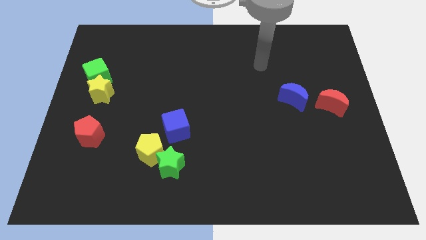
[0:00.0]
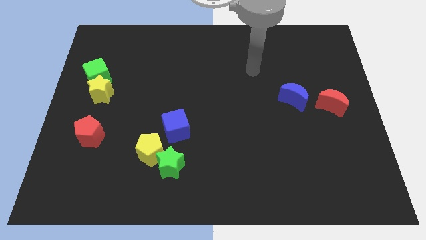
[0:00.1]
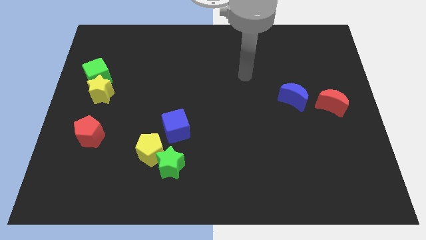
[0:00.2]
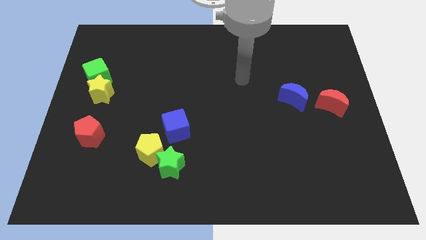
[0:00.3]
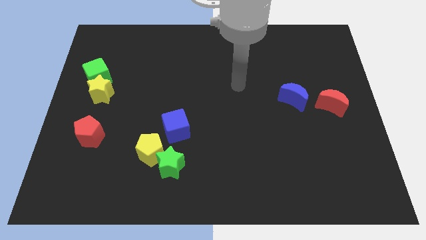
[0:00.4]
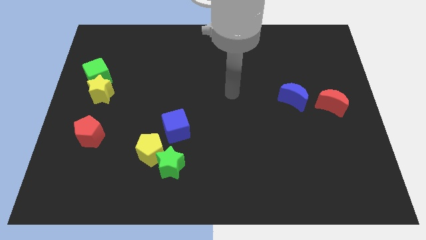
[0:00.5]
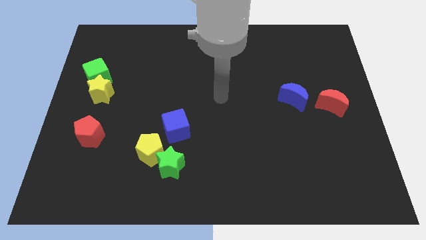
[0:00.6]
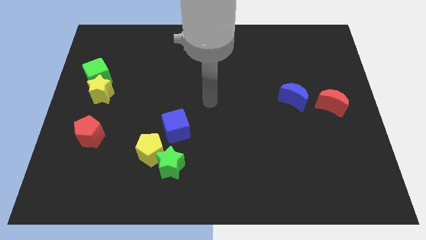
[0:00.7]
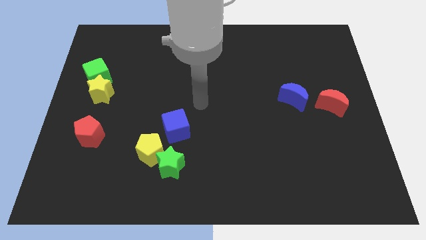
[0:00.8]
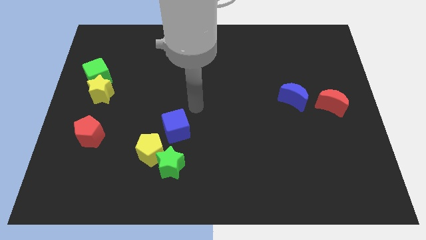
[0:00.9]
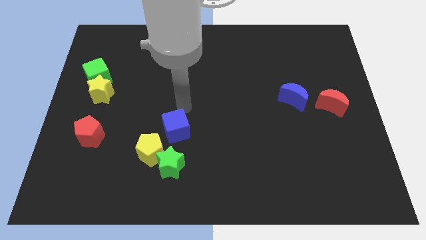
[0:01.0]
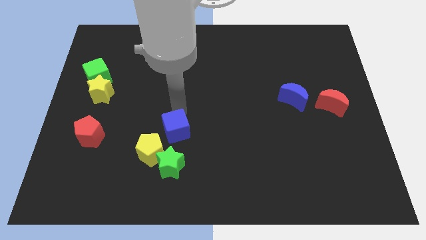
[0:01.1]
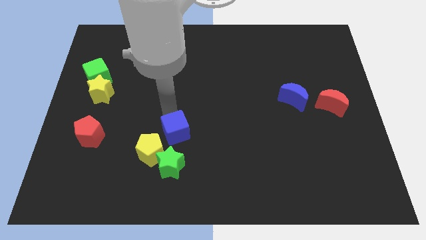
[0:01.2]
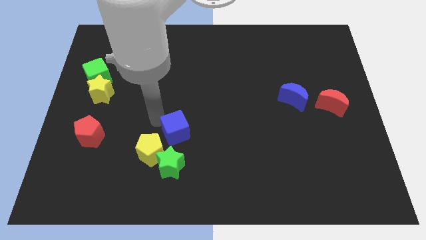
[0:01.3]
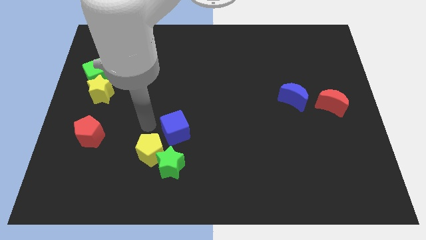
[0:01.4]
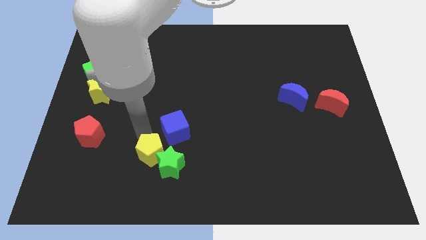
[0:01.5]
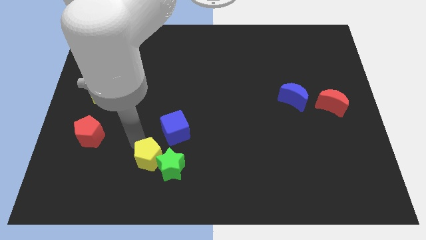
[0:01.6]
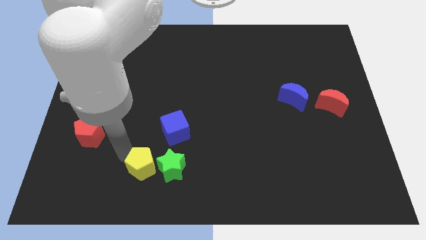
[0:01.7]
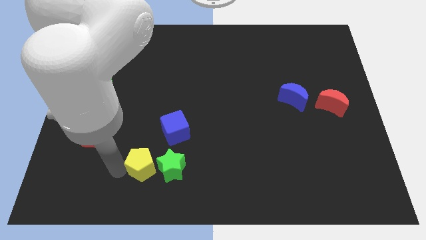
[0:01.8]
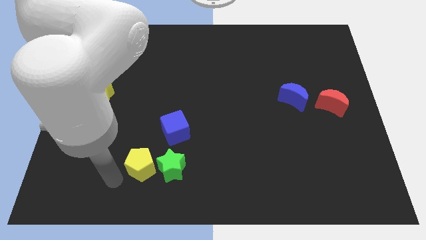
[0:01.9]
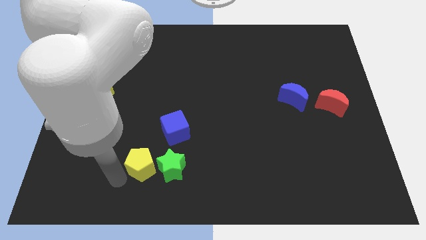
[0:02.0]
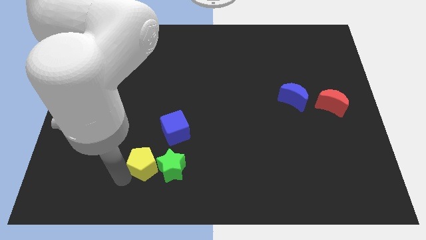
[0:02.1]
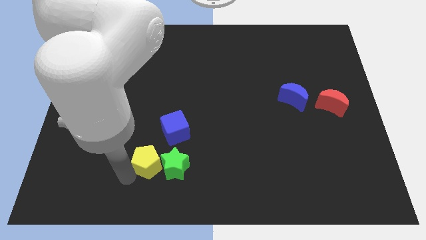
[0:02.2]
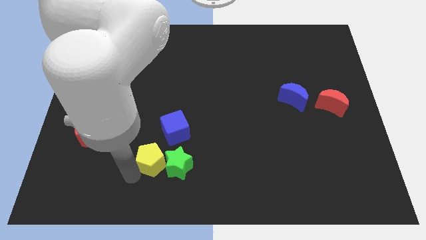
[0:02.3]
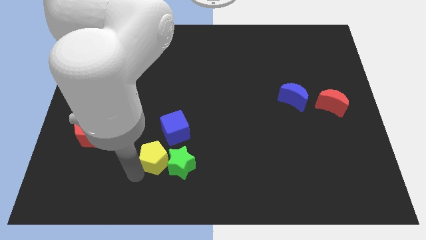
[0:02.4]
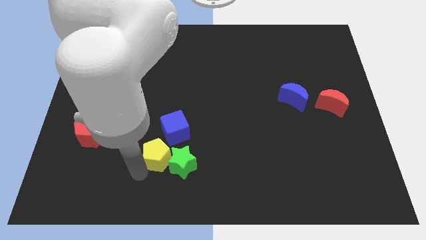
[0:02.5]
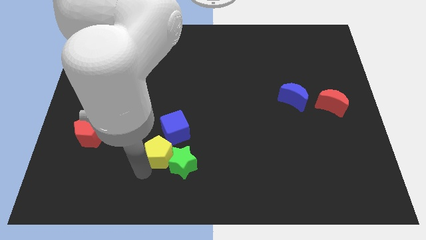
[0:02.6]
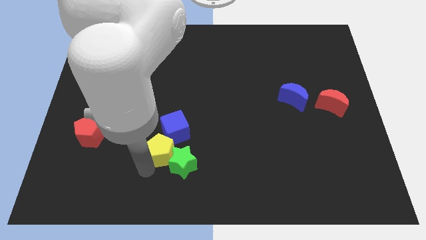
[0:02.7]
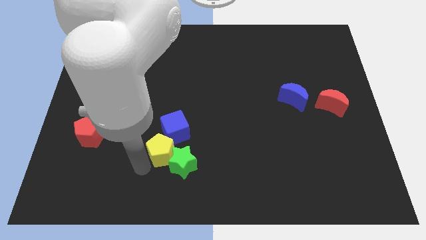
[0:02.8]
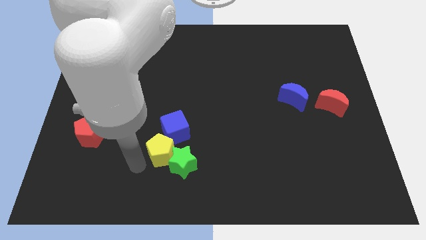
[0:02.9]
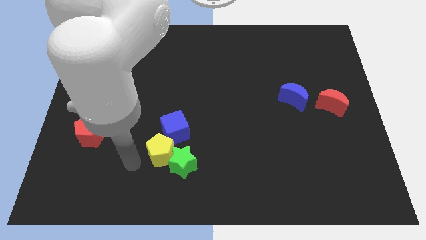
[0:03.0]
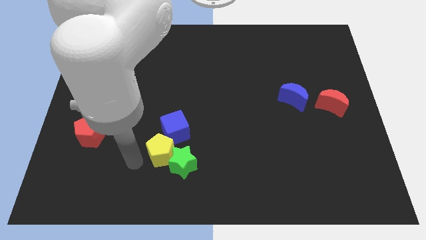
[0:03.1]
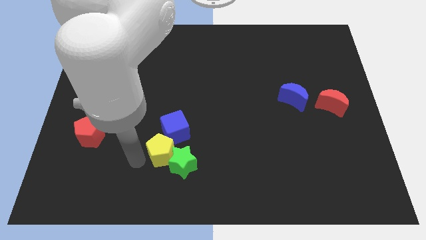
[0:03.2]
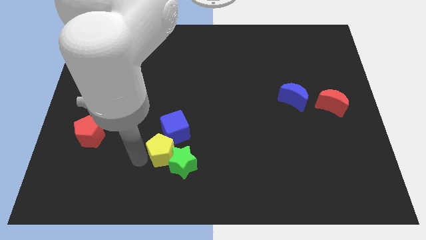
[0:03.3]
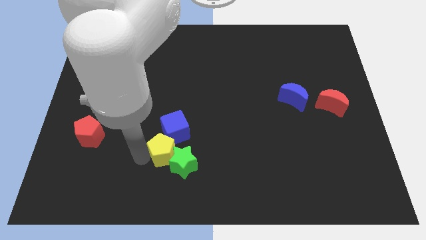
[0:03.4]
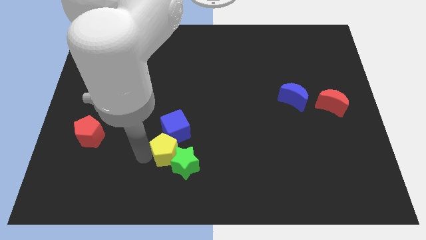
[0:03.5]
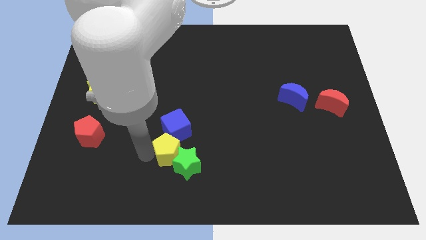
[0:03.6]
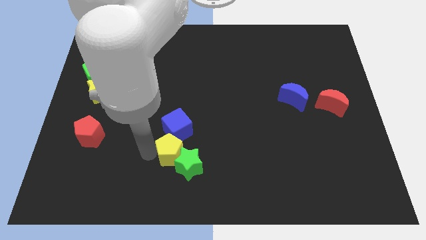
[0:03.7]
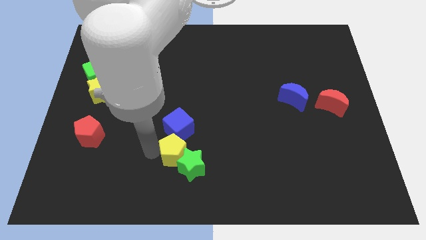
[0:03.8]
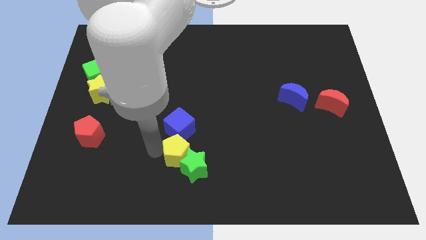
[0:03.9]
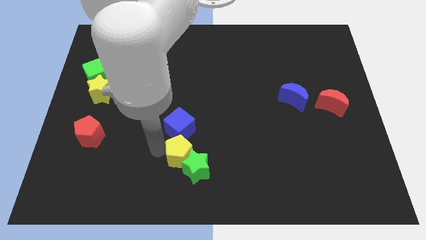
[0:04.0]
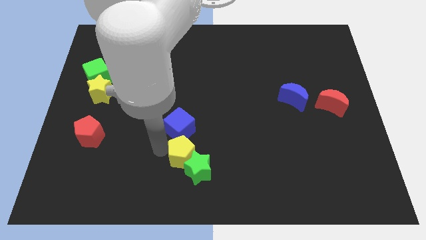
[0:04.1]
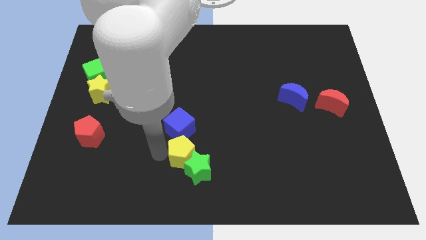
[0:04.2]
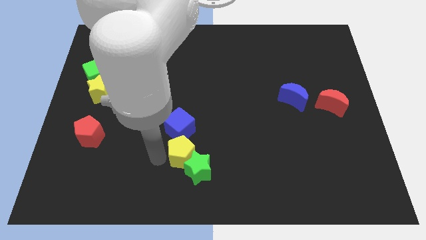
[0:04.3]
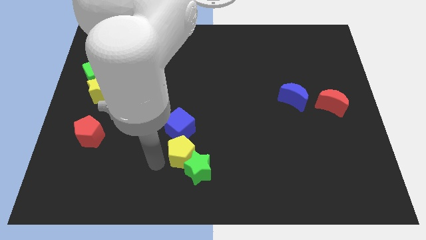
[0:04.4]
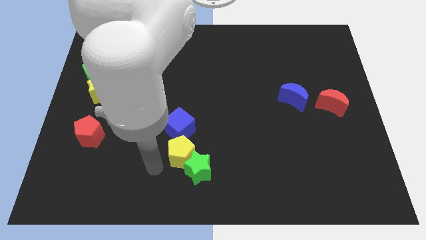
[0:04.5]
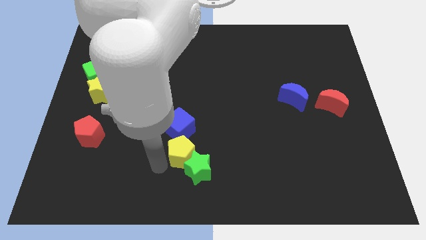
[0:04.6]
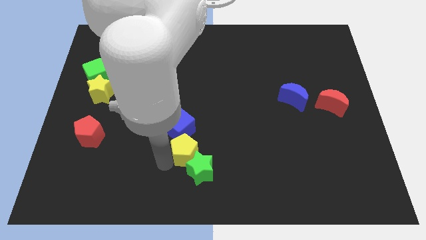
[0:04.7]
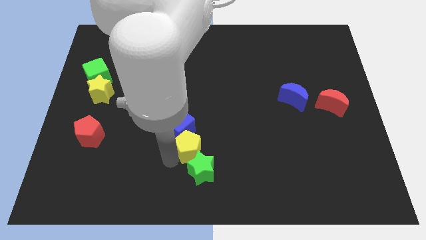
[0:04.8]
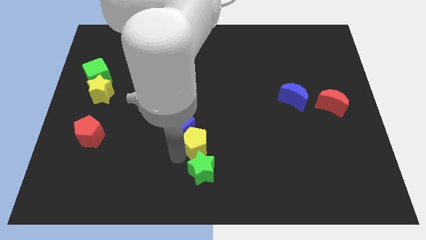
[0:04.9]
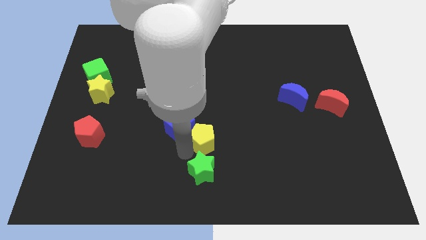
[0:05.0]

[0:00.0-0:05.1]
slightly push the yellow pentagon up and then to the right

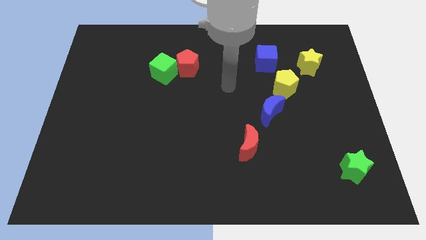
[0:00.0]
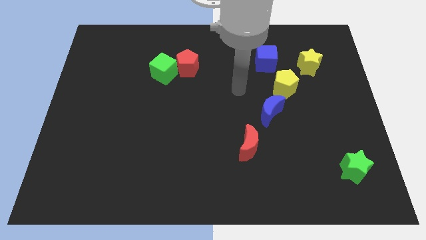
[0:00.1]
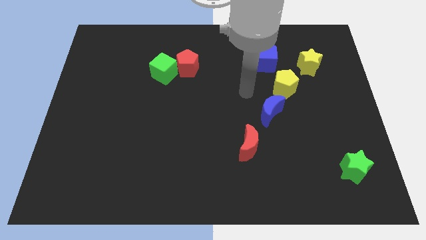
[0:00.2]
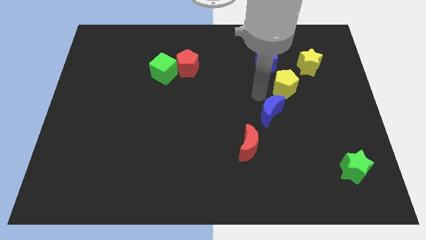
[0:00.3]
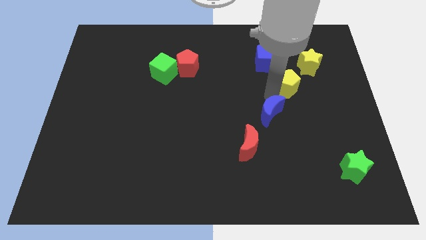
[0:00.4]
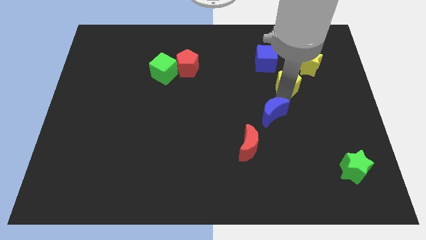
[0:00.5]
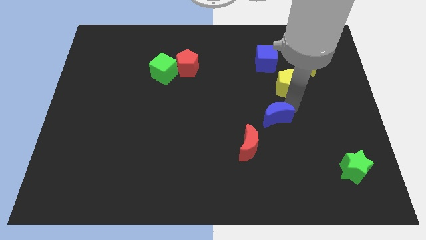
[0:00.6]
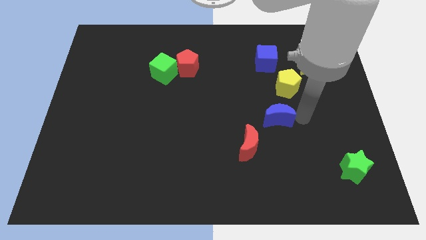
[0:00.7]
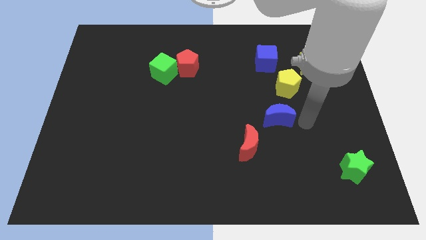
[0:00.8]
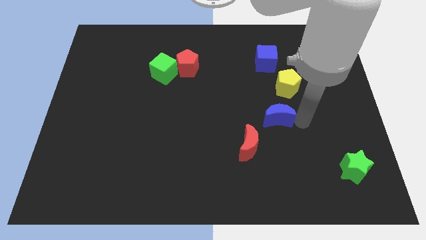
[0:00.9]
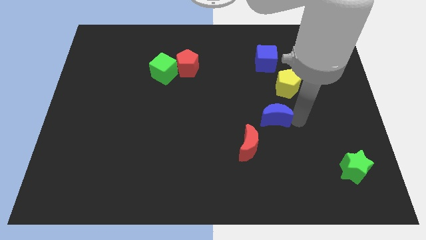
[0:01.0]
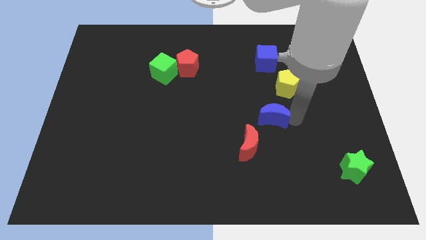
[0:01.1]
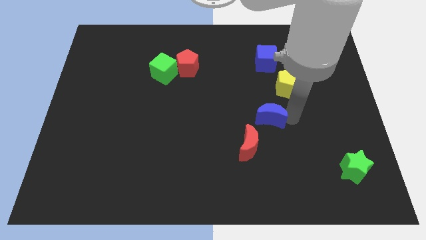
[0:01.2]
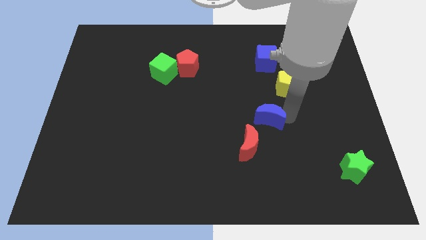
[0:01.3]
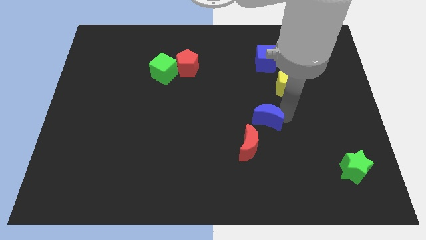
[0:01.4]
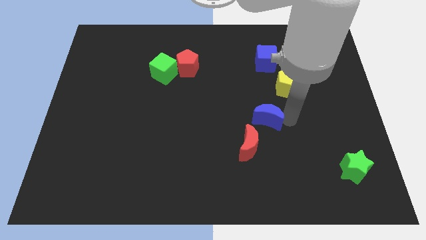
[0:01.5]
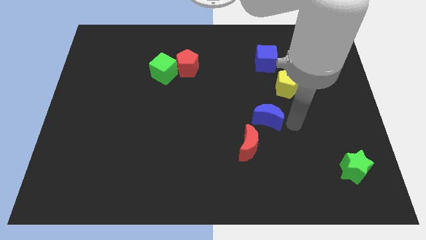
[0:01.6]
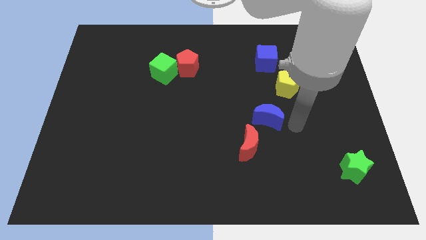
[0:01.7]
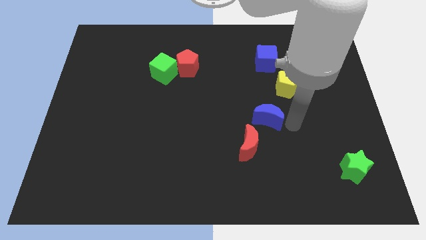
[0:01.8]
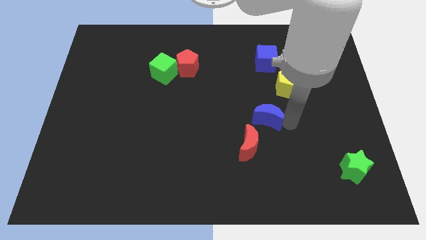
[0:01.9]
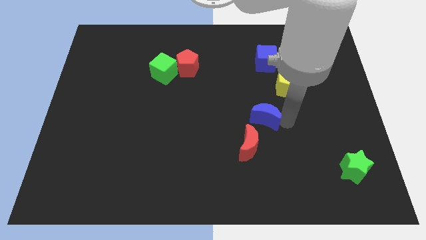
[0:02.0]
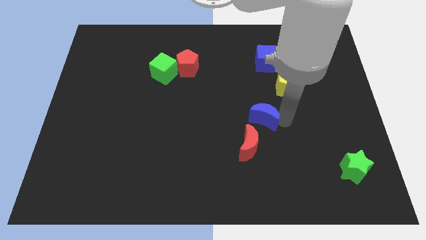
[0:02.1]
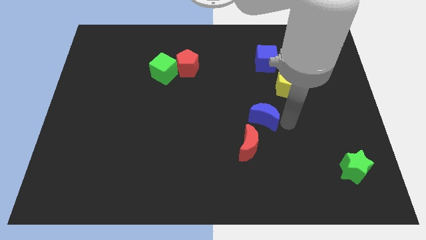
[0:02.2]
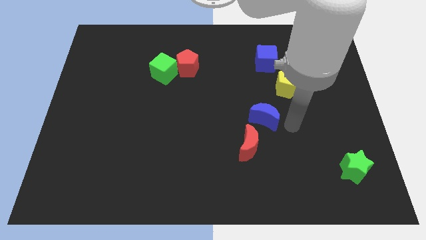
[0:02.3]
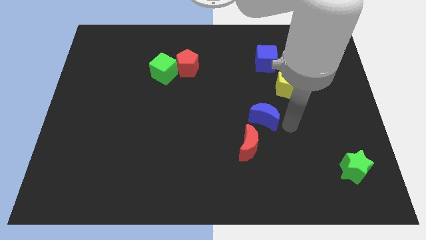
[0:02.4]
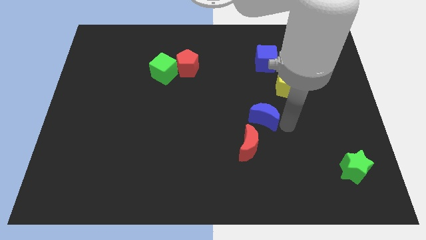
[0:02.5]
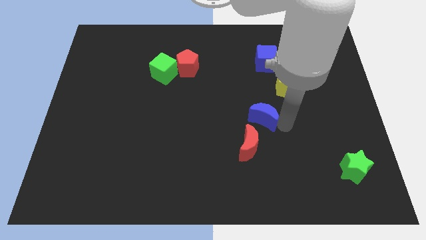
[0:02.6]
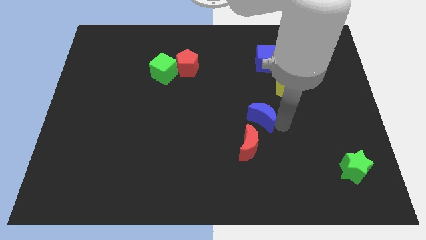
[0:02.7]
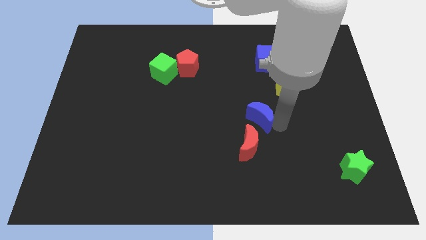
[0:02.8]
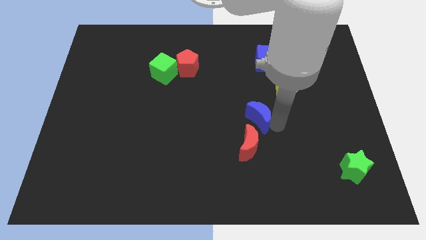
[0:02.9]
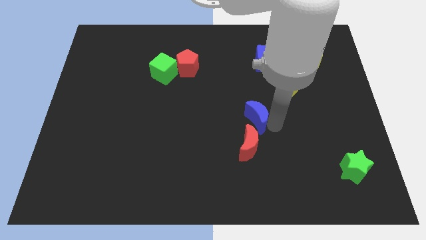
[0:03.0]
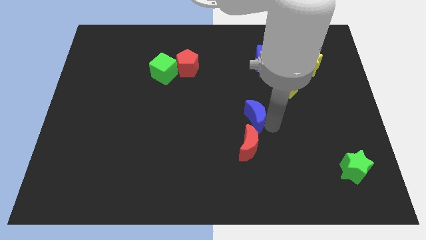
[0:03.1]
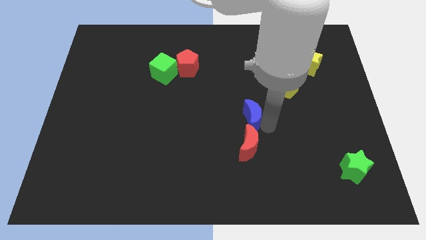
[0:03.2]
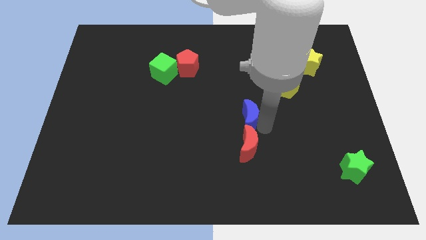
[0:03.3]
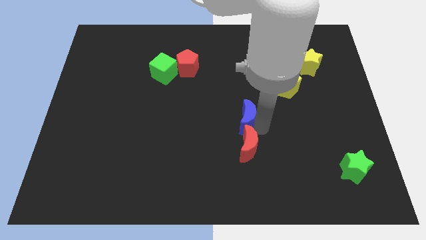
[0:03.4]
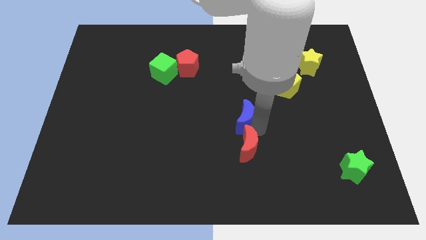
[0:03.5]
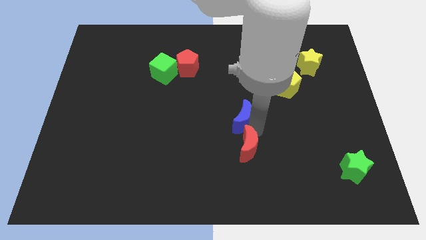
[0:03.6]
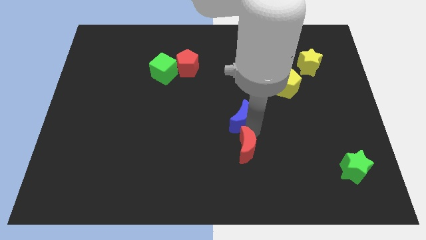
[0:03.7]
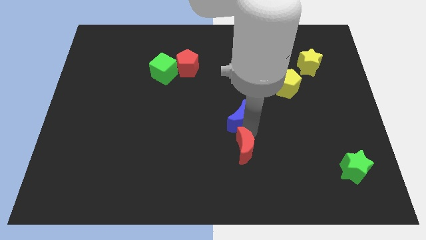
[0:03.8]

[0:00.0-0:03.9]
move the blue moon to the left a little
